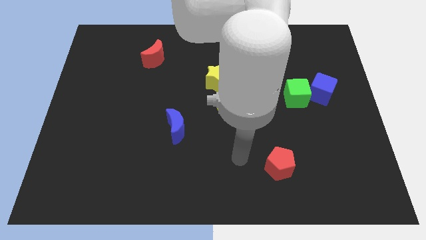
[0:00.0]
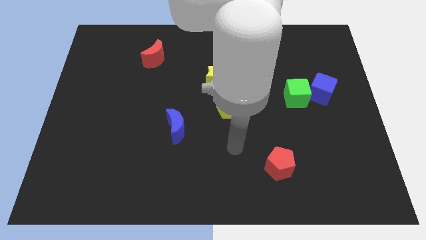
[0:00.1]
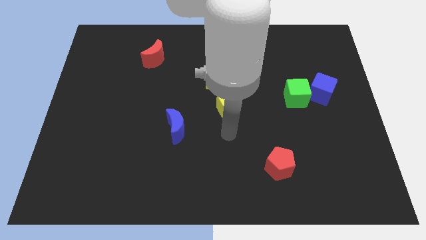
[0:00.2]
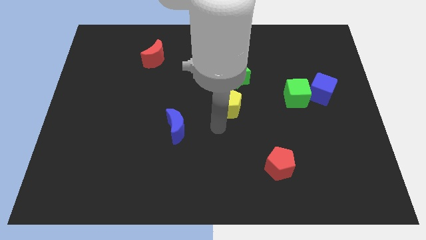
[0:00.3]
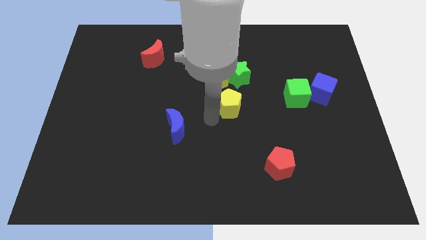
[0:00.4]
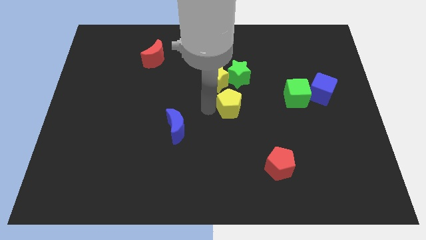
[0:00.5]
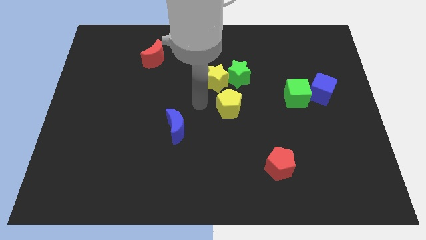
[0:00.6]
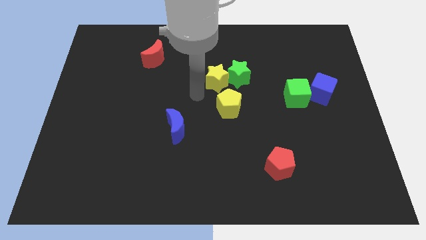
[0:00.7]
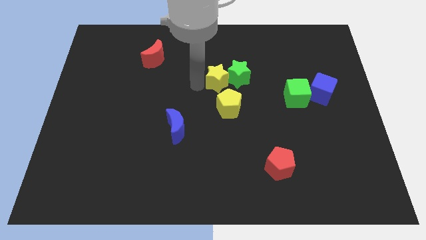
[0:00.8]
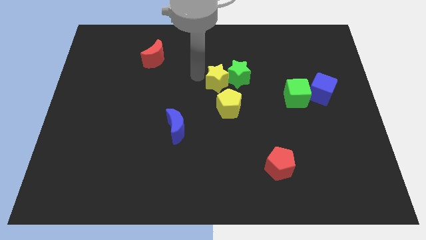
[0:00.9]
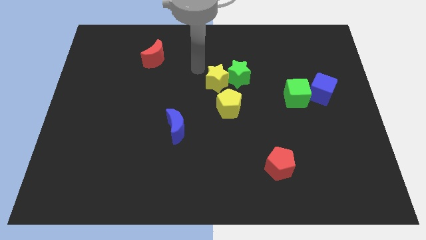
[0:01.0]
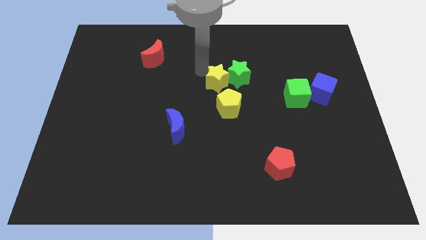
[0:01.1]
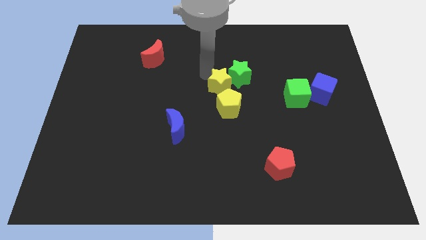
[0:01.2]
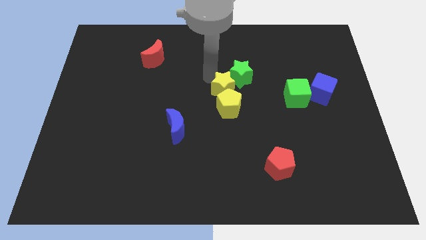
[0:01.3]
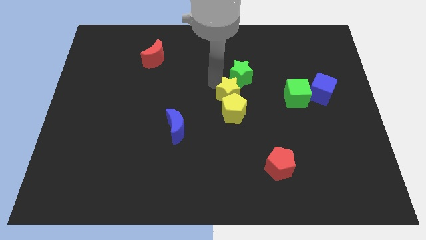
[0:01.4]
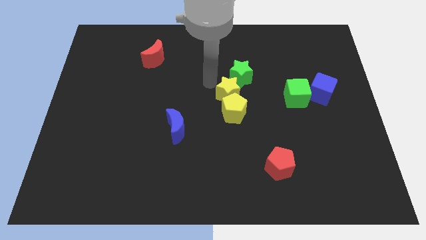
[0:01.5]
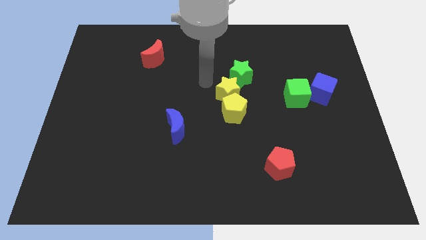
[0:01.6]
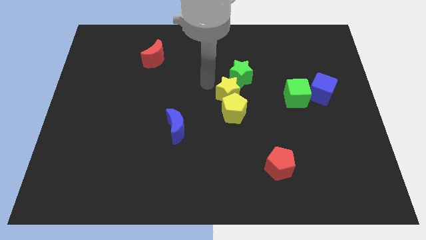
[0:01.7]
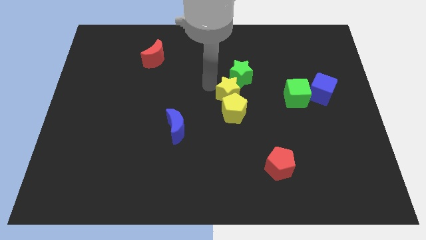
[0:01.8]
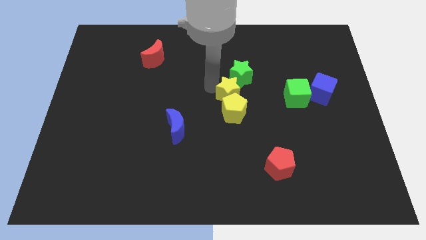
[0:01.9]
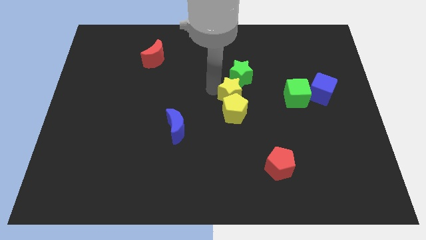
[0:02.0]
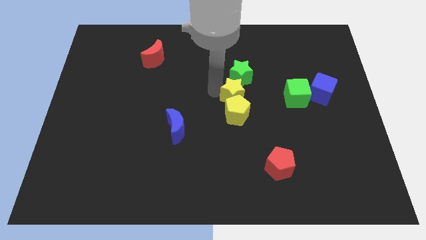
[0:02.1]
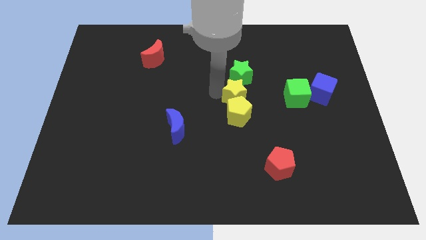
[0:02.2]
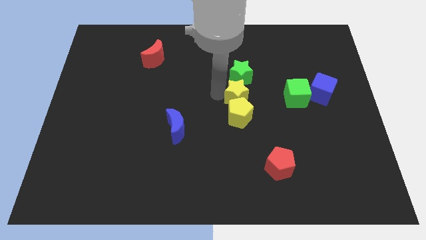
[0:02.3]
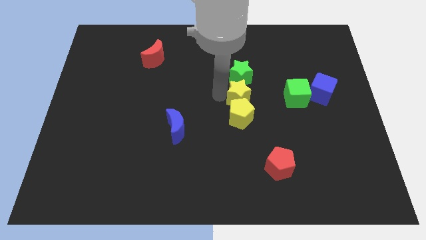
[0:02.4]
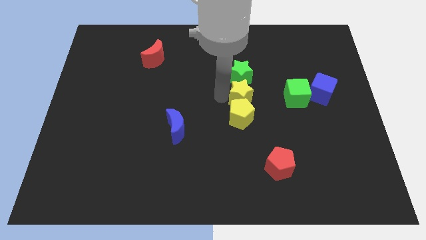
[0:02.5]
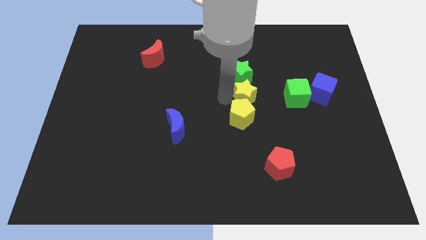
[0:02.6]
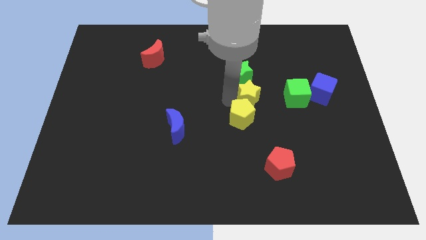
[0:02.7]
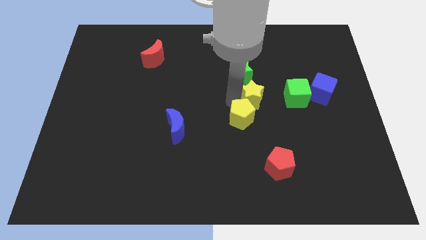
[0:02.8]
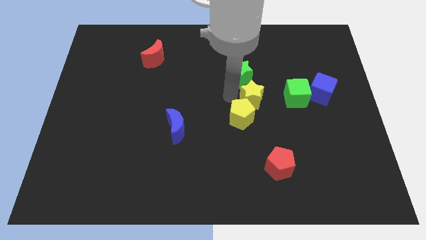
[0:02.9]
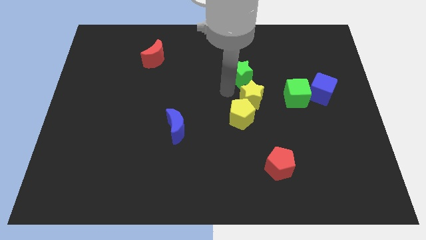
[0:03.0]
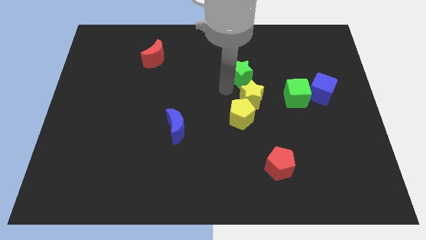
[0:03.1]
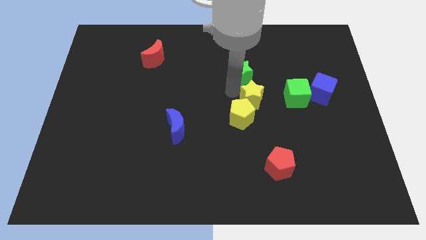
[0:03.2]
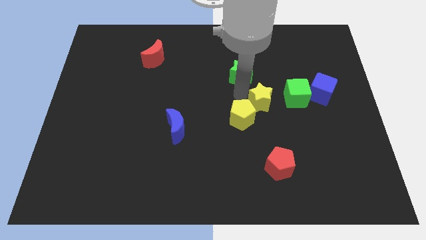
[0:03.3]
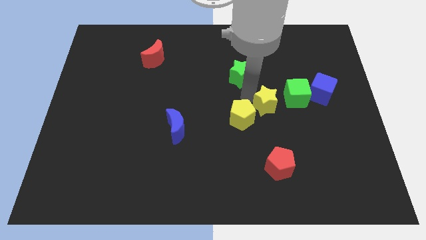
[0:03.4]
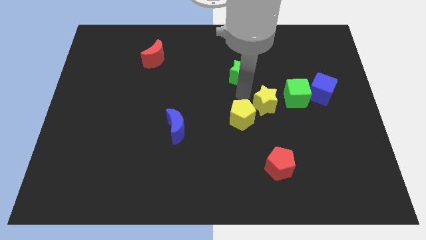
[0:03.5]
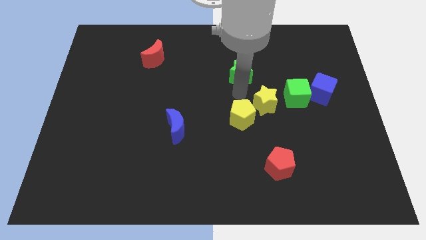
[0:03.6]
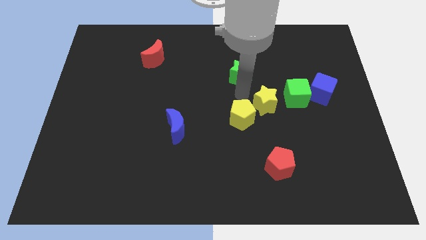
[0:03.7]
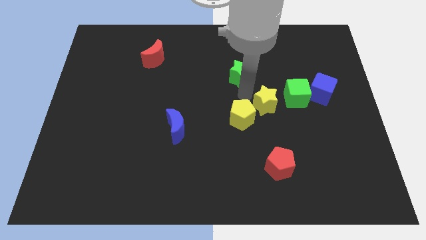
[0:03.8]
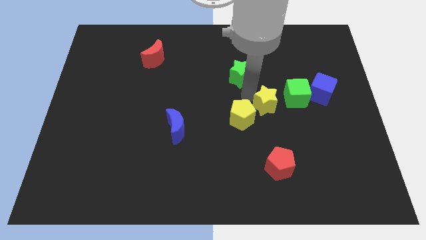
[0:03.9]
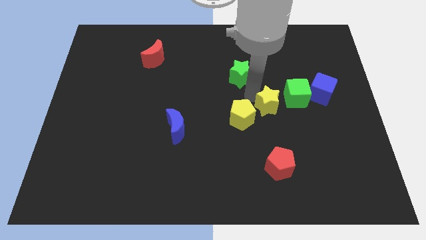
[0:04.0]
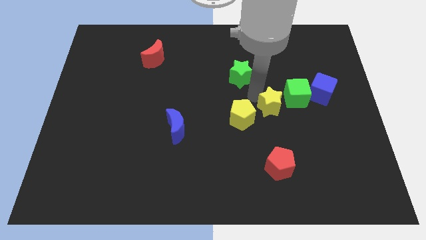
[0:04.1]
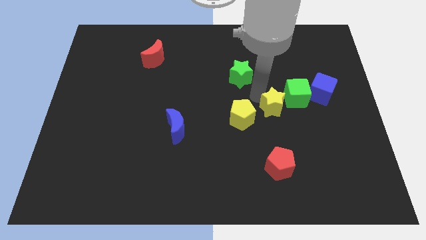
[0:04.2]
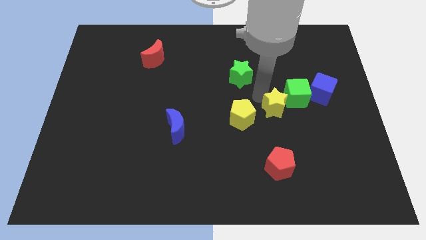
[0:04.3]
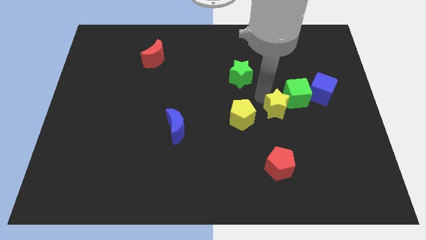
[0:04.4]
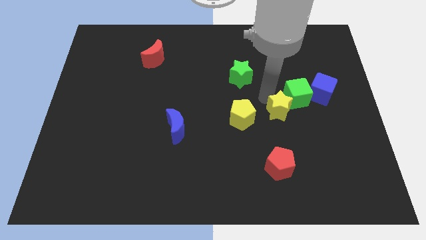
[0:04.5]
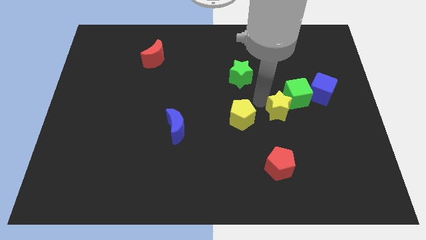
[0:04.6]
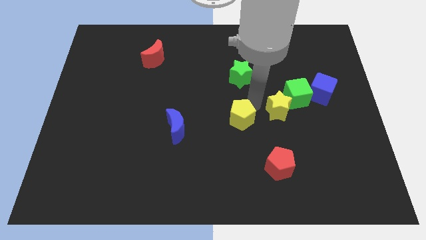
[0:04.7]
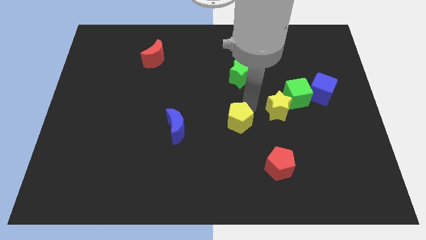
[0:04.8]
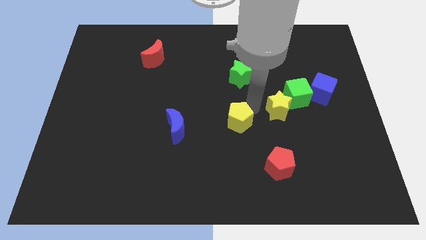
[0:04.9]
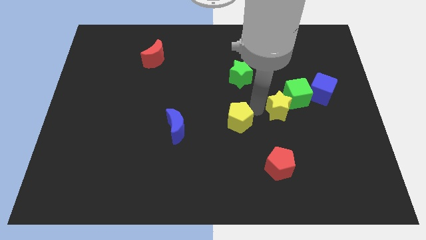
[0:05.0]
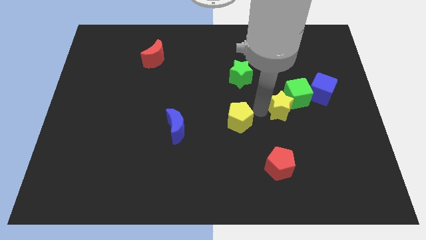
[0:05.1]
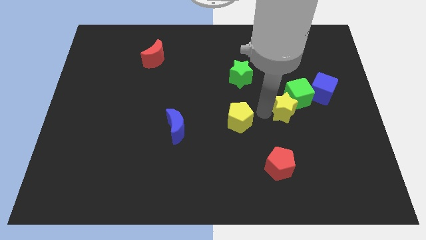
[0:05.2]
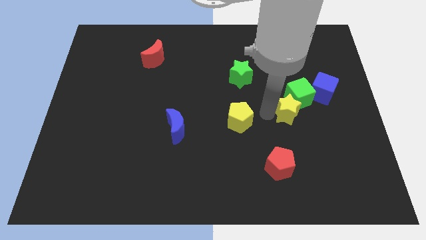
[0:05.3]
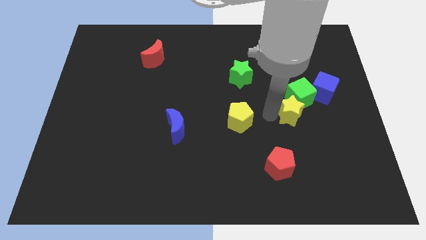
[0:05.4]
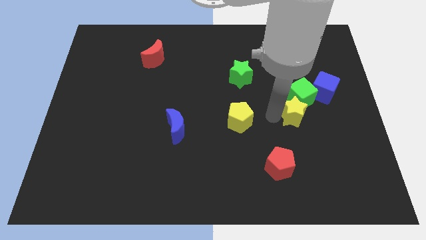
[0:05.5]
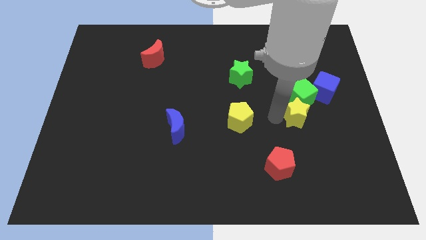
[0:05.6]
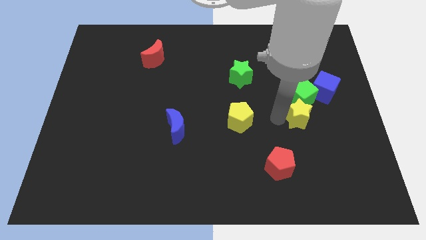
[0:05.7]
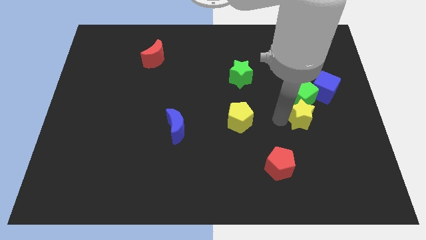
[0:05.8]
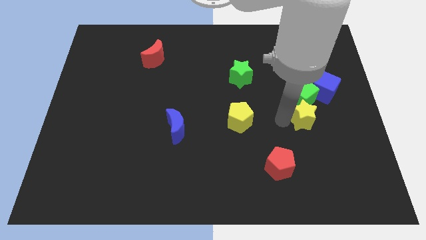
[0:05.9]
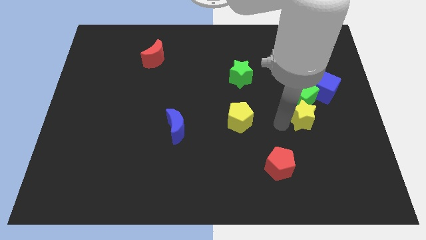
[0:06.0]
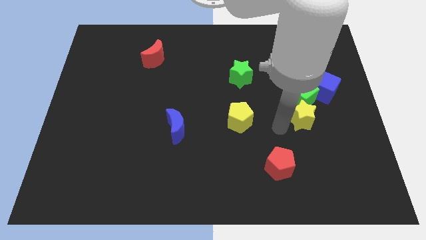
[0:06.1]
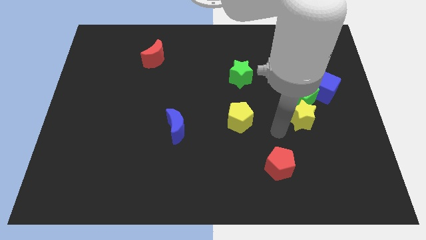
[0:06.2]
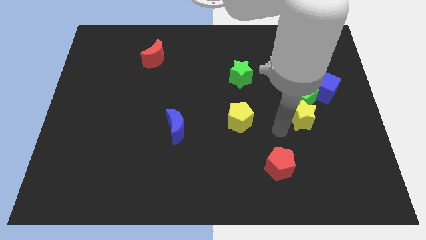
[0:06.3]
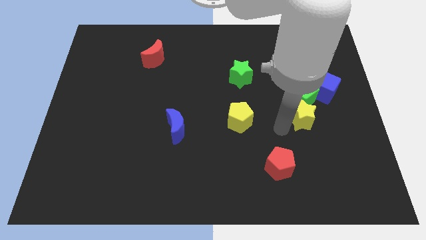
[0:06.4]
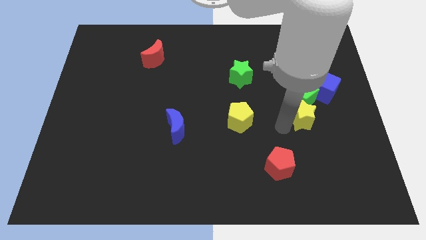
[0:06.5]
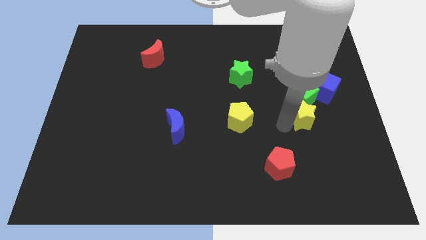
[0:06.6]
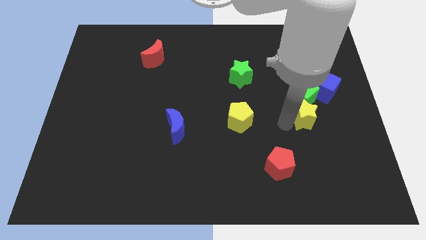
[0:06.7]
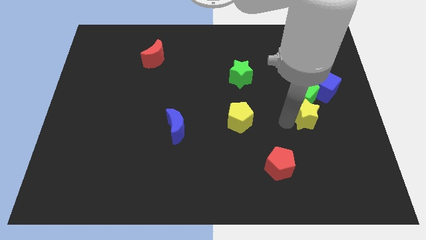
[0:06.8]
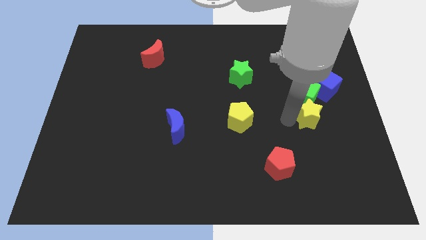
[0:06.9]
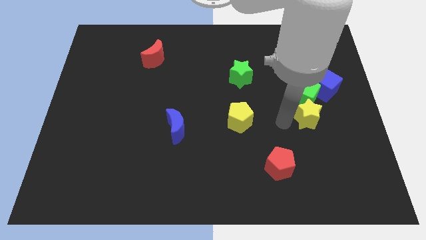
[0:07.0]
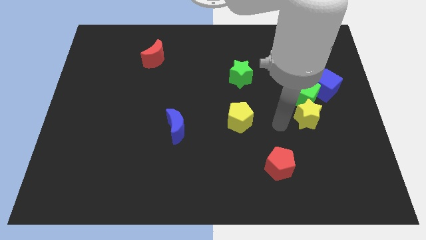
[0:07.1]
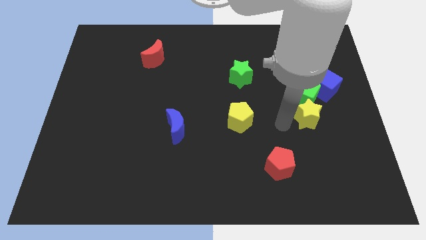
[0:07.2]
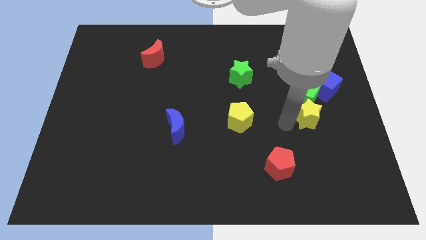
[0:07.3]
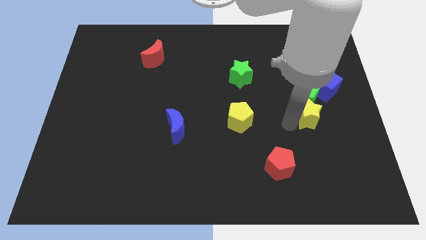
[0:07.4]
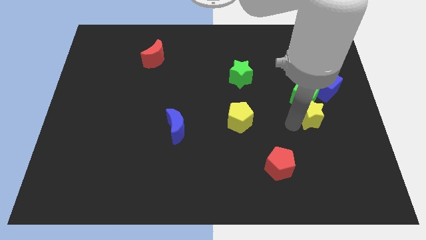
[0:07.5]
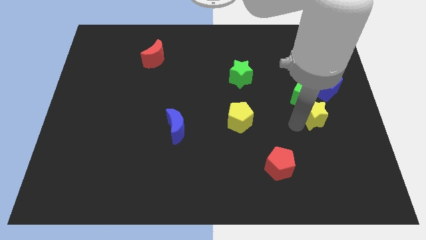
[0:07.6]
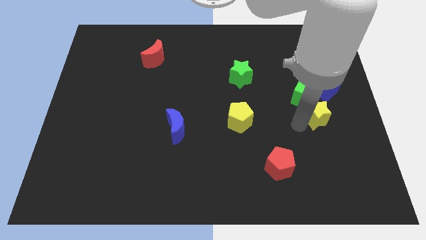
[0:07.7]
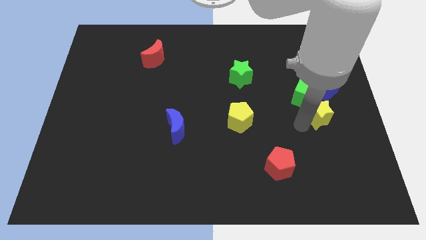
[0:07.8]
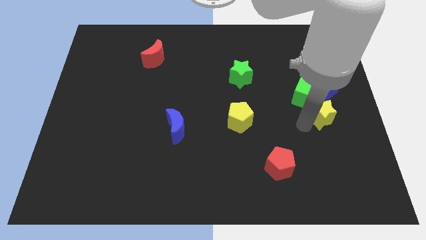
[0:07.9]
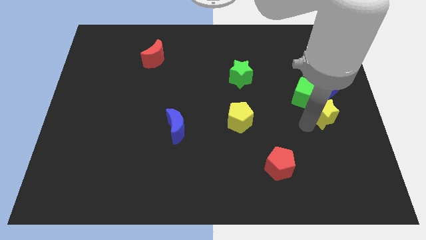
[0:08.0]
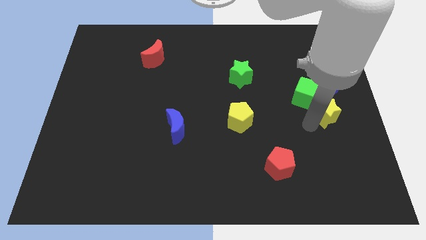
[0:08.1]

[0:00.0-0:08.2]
slide the yellow star to the right side of the board
